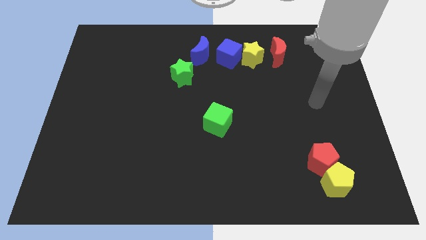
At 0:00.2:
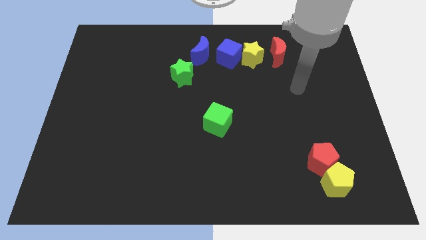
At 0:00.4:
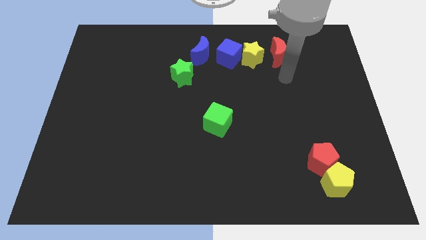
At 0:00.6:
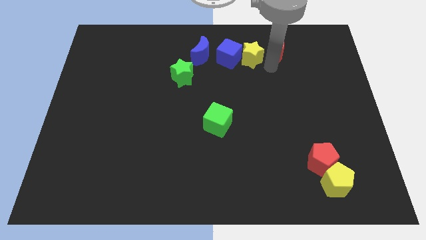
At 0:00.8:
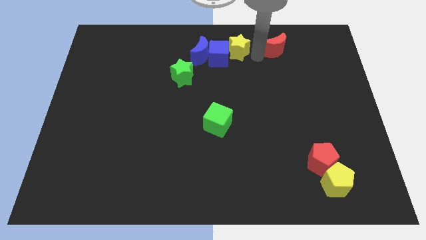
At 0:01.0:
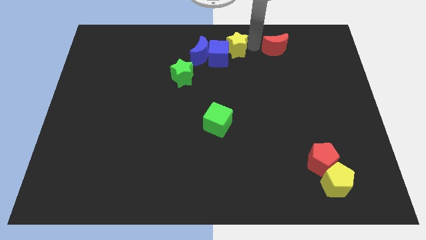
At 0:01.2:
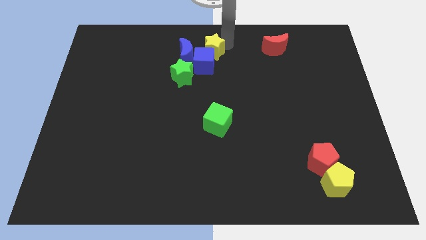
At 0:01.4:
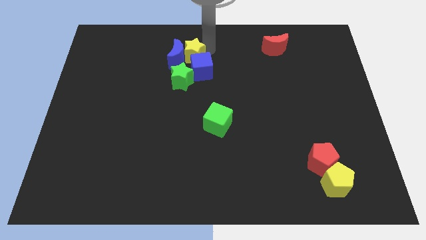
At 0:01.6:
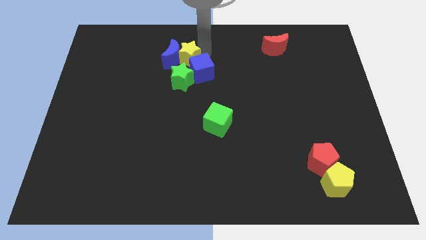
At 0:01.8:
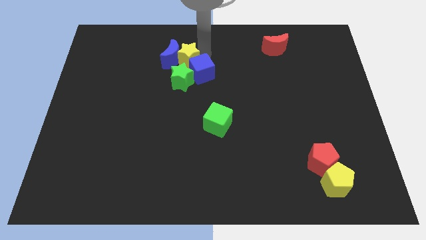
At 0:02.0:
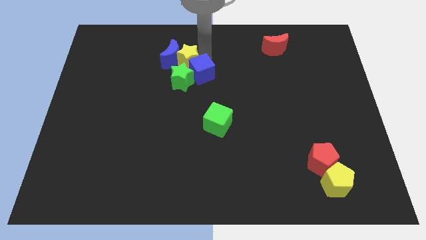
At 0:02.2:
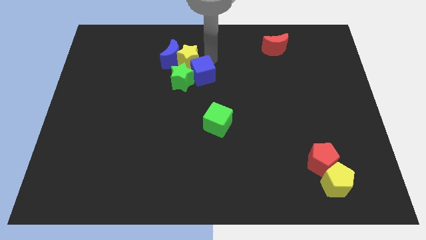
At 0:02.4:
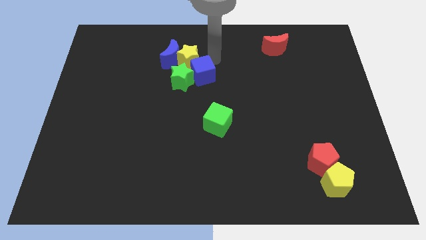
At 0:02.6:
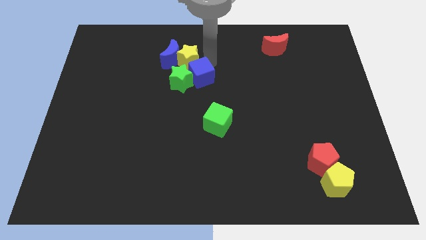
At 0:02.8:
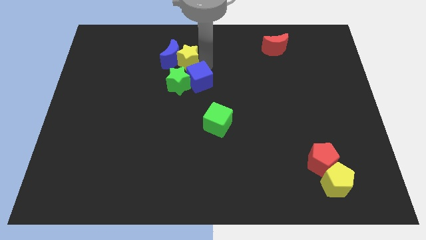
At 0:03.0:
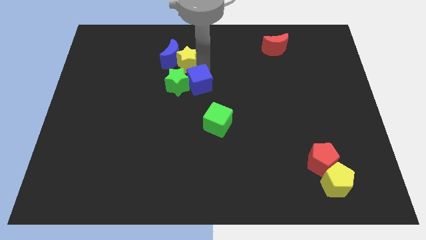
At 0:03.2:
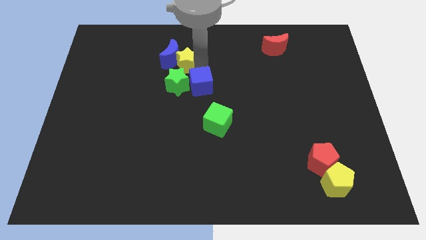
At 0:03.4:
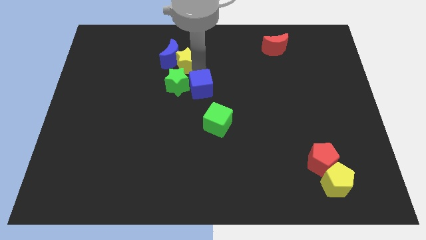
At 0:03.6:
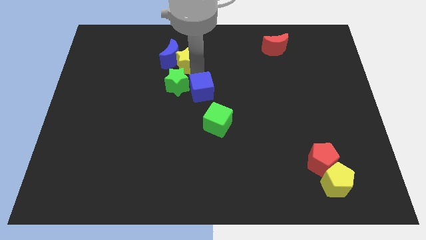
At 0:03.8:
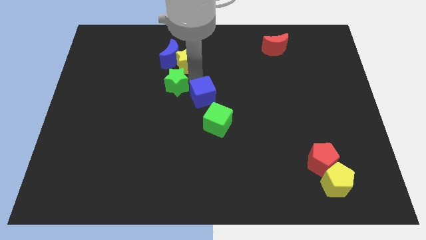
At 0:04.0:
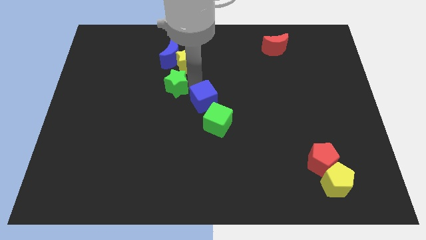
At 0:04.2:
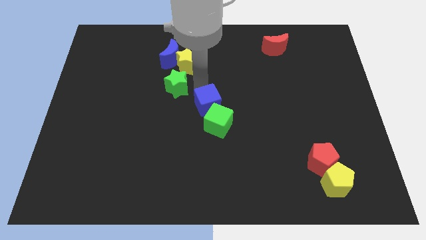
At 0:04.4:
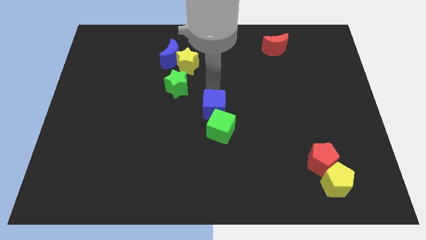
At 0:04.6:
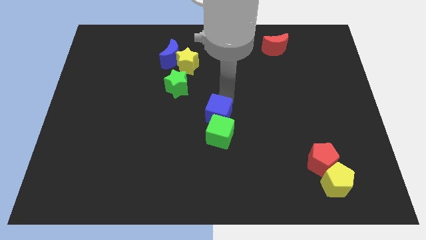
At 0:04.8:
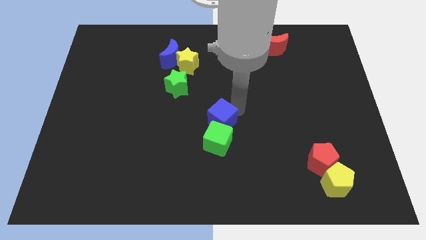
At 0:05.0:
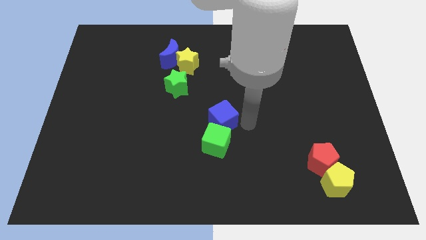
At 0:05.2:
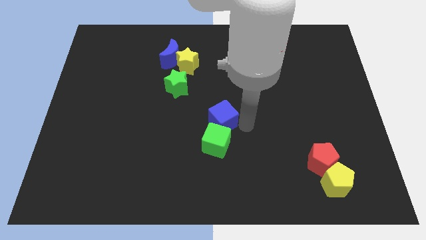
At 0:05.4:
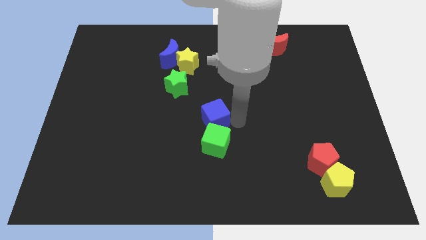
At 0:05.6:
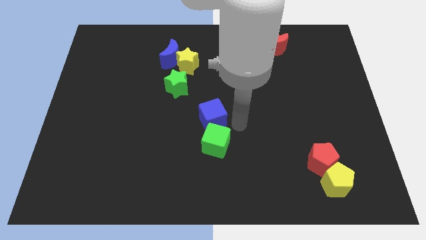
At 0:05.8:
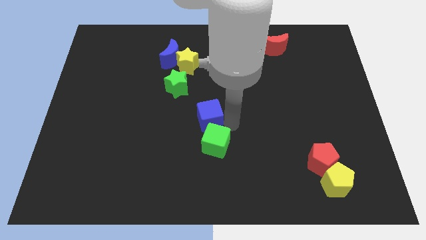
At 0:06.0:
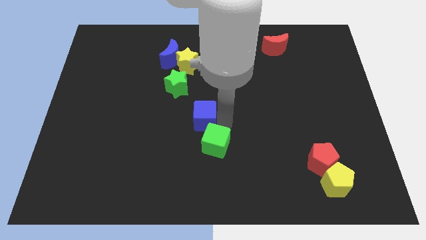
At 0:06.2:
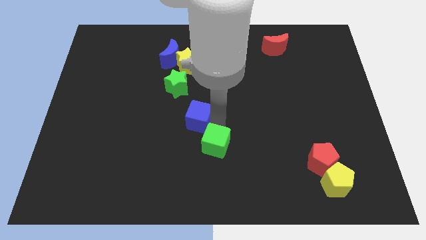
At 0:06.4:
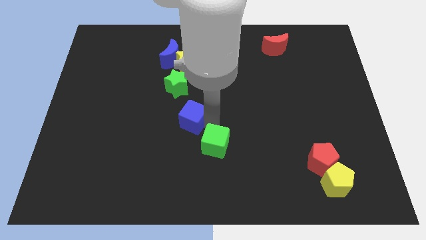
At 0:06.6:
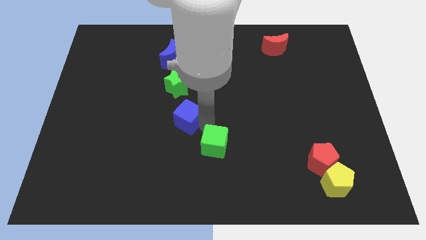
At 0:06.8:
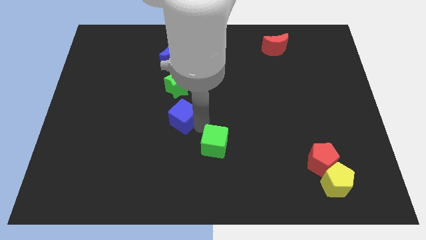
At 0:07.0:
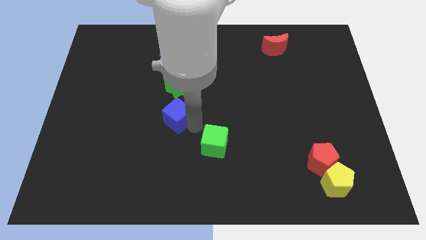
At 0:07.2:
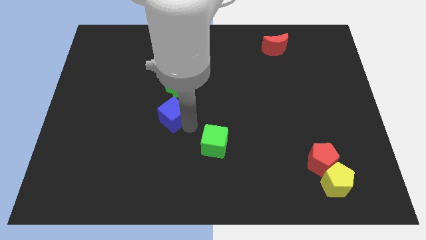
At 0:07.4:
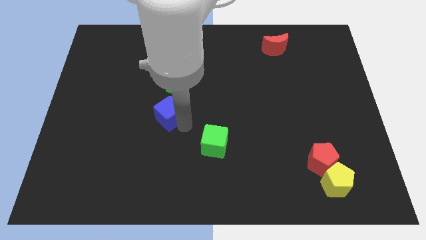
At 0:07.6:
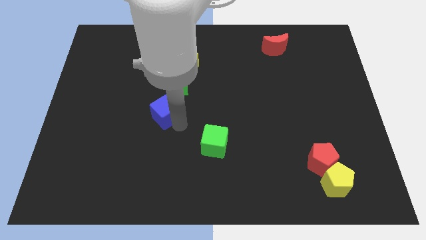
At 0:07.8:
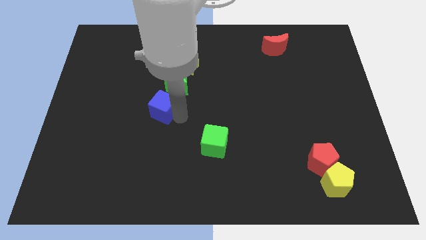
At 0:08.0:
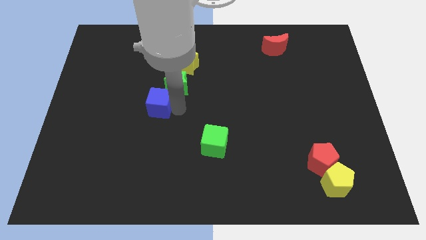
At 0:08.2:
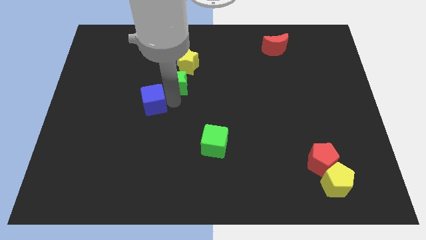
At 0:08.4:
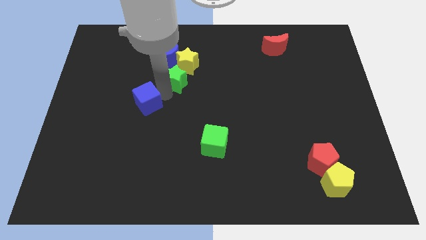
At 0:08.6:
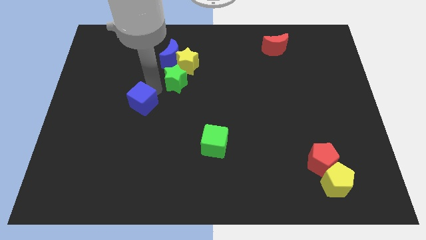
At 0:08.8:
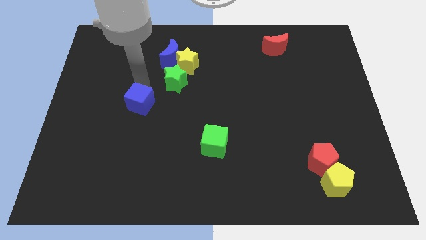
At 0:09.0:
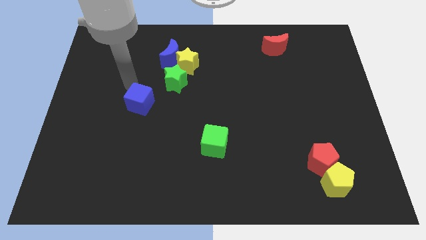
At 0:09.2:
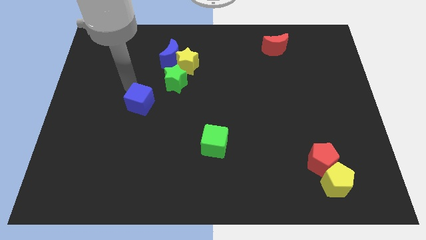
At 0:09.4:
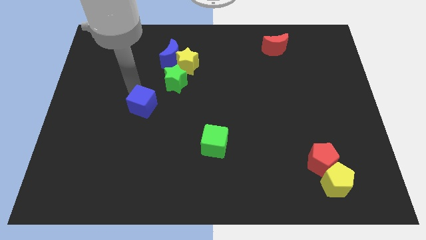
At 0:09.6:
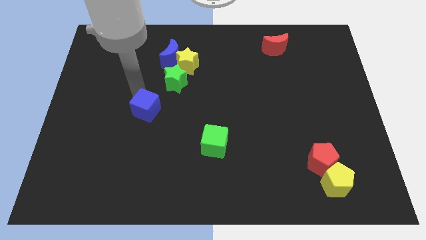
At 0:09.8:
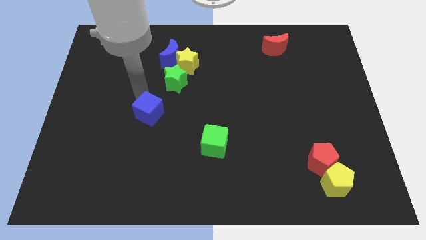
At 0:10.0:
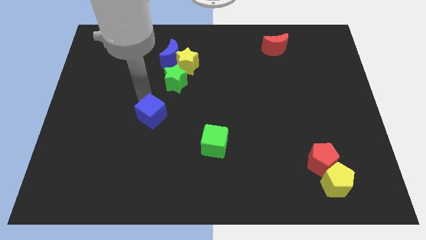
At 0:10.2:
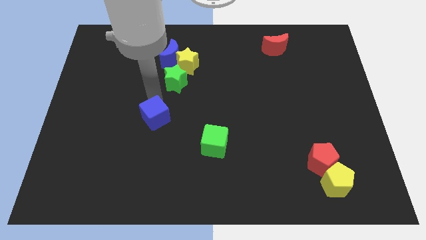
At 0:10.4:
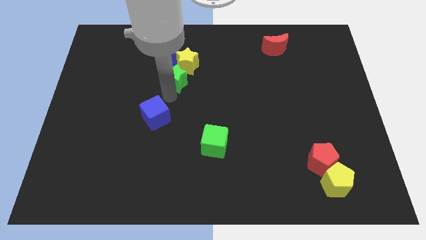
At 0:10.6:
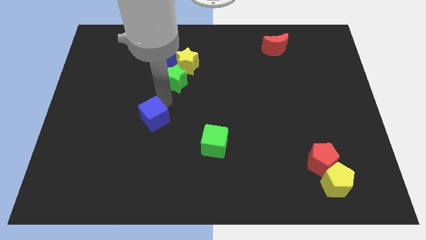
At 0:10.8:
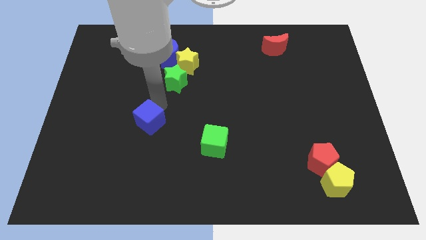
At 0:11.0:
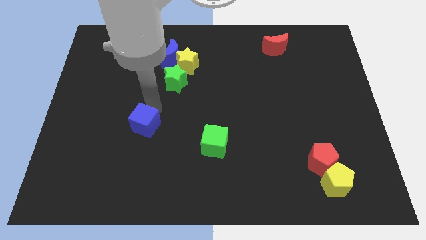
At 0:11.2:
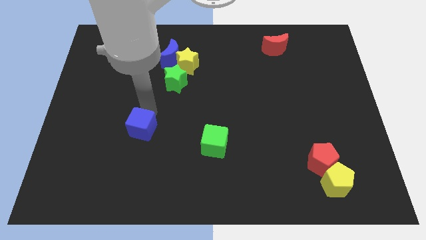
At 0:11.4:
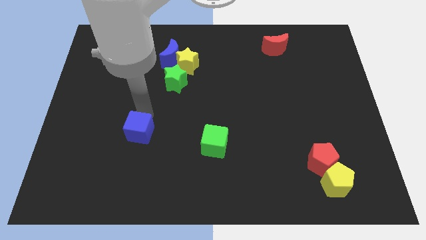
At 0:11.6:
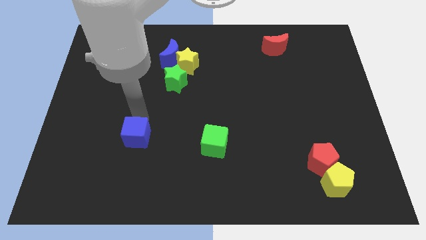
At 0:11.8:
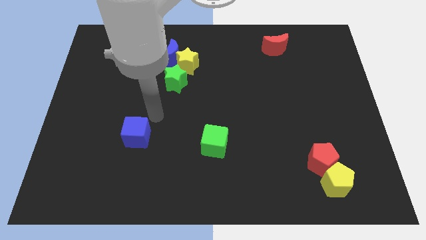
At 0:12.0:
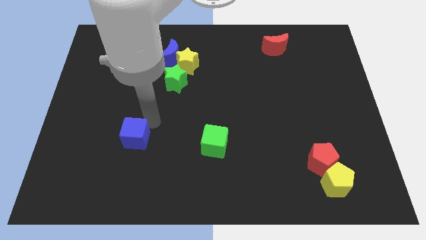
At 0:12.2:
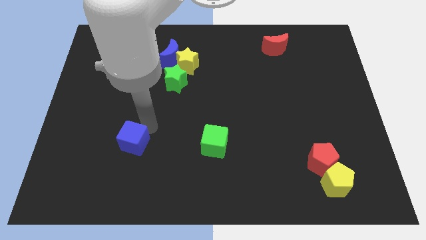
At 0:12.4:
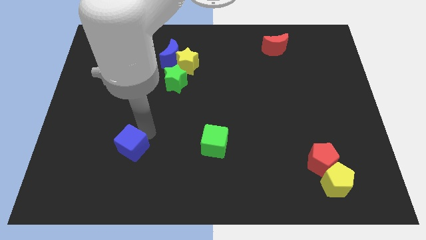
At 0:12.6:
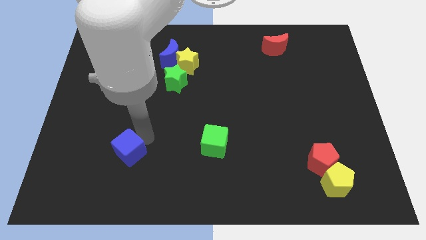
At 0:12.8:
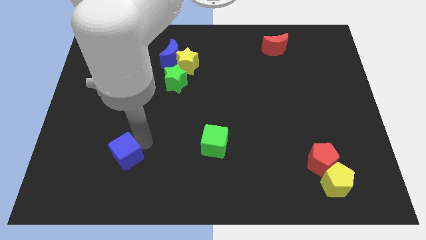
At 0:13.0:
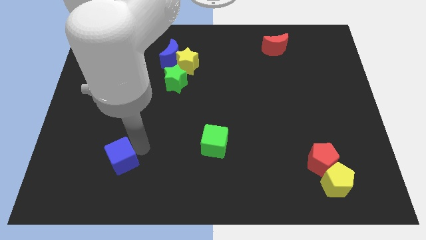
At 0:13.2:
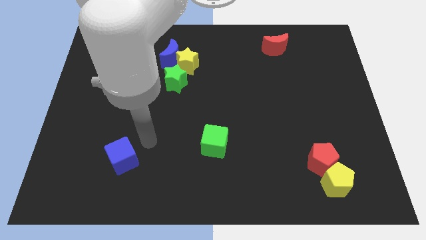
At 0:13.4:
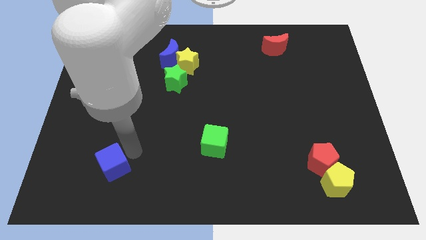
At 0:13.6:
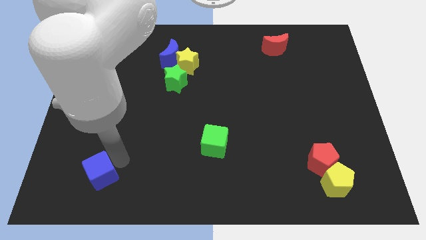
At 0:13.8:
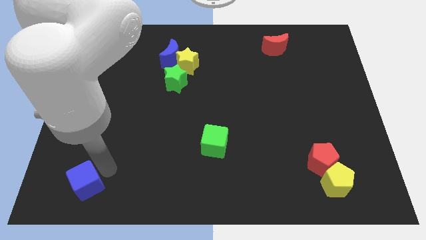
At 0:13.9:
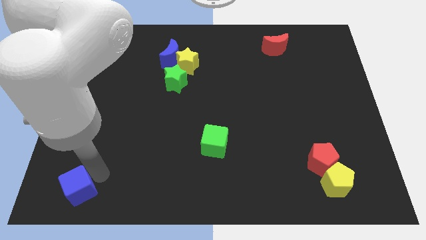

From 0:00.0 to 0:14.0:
move the blue cube to the bottom left of the board
